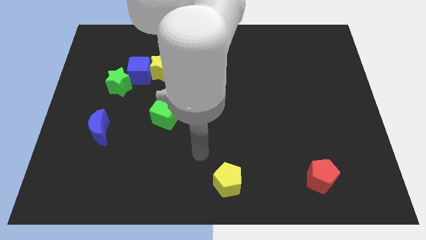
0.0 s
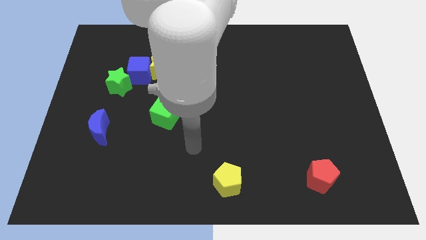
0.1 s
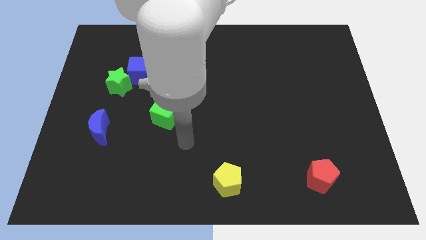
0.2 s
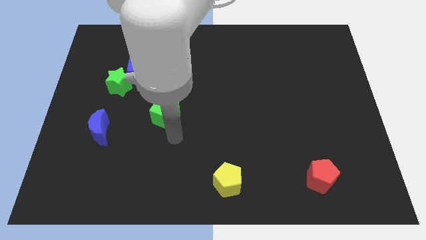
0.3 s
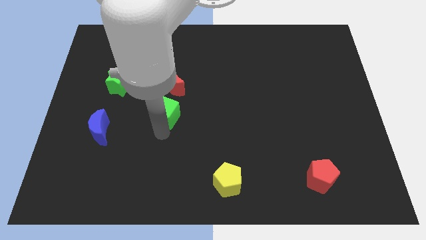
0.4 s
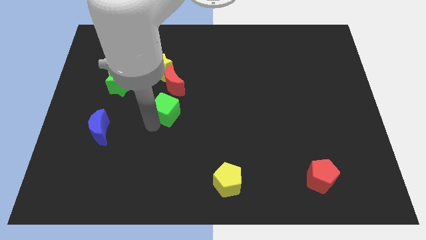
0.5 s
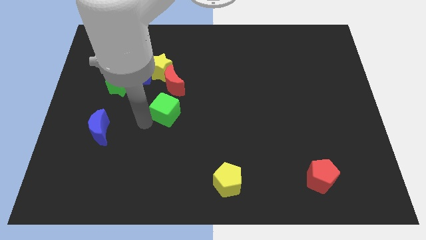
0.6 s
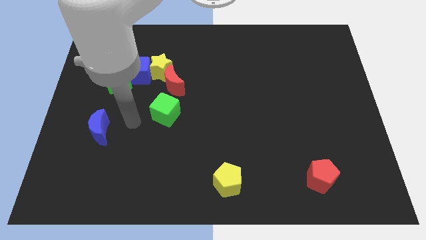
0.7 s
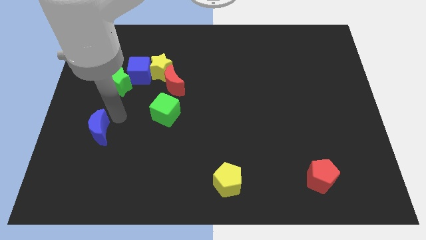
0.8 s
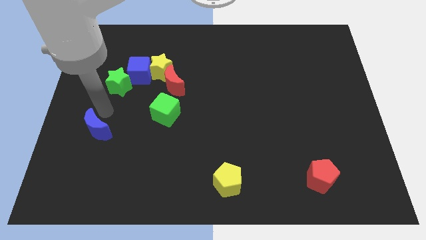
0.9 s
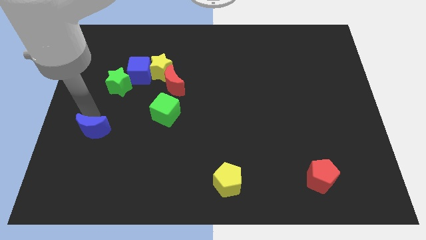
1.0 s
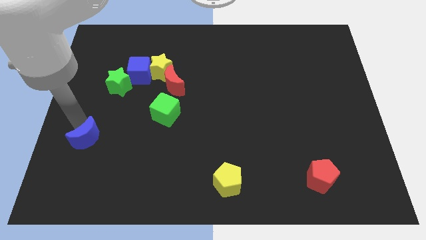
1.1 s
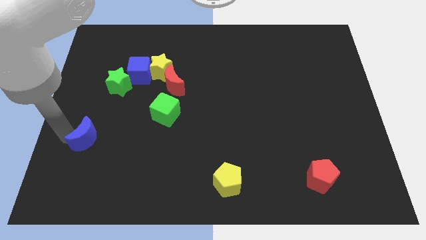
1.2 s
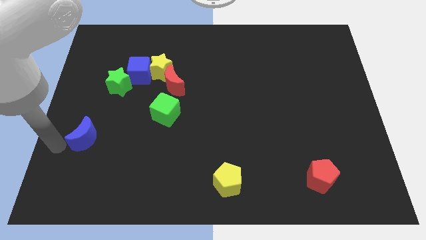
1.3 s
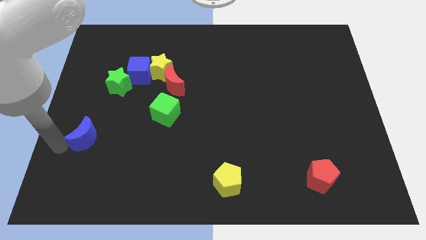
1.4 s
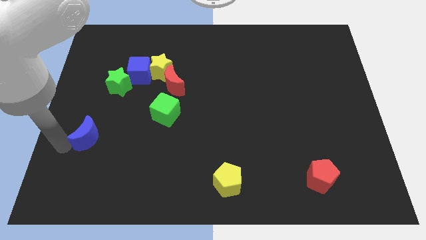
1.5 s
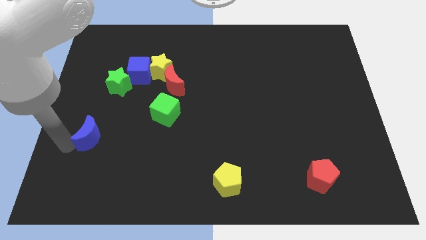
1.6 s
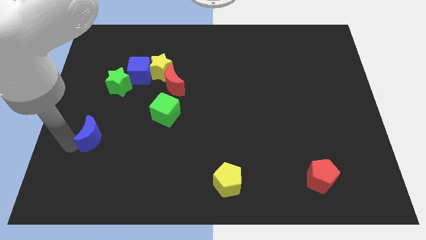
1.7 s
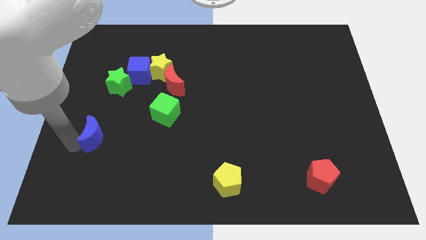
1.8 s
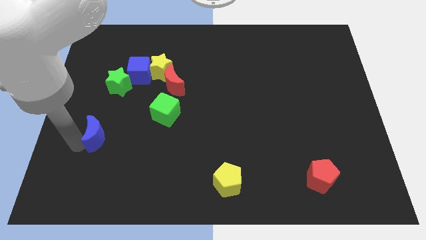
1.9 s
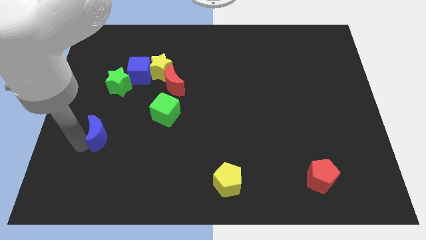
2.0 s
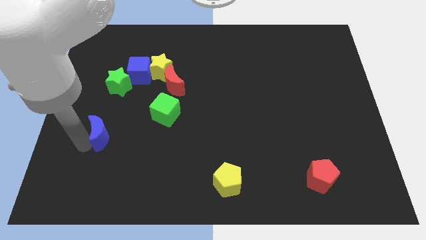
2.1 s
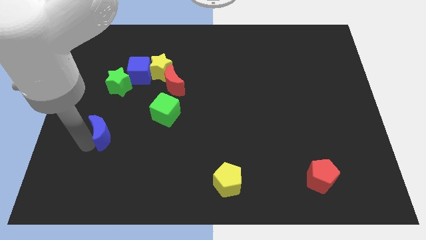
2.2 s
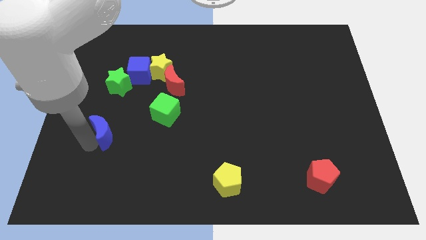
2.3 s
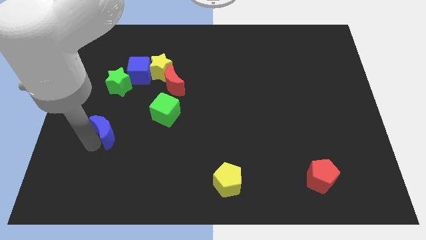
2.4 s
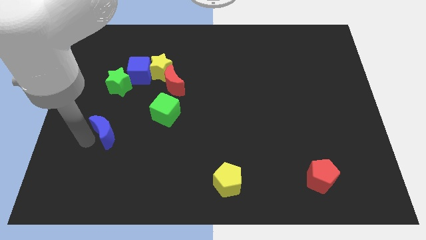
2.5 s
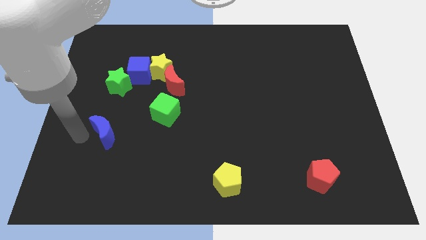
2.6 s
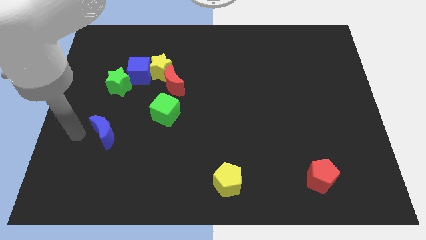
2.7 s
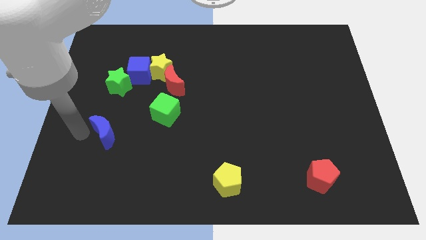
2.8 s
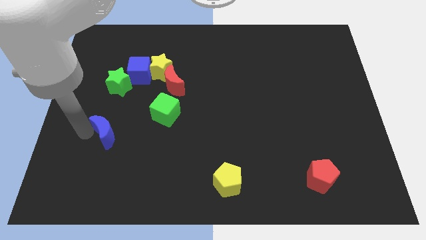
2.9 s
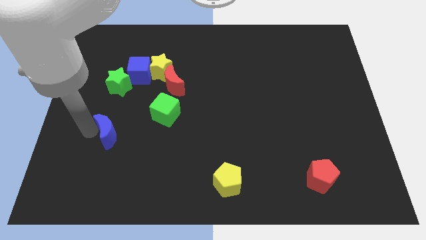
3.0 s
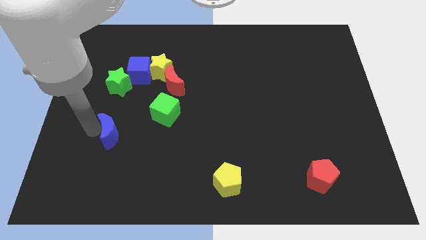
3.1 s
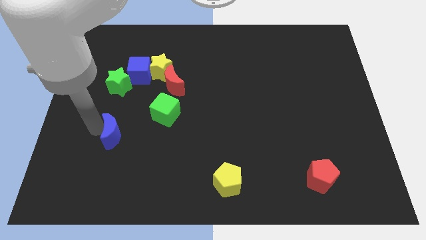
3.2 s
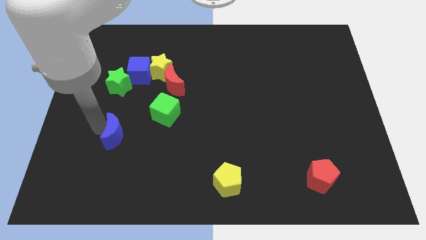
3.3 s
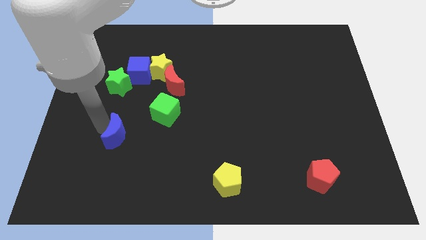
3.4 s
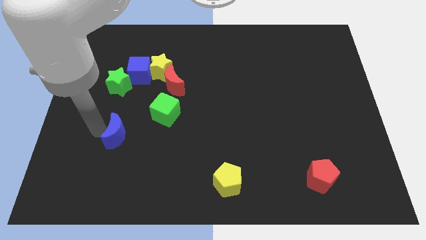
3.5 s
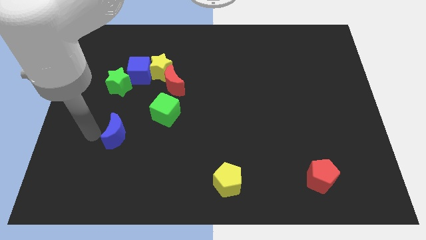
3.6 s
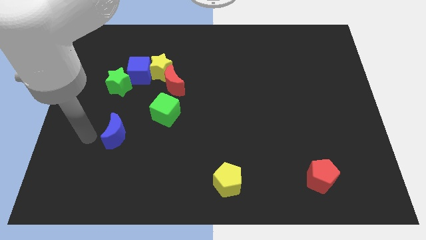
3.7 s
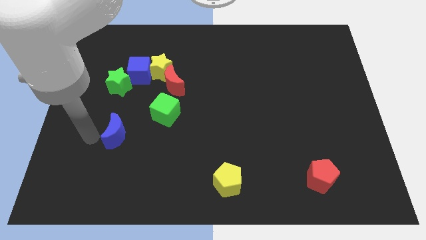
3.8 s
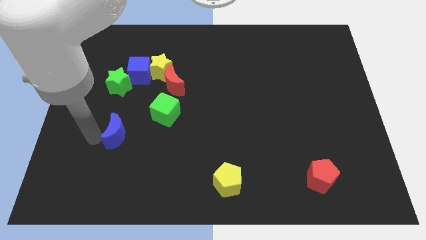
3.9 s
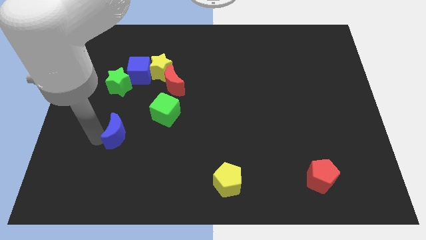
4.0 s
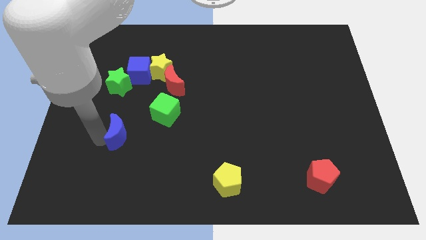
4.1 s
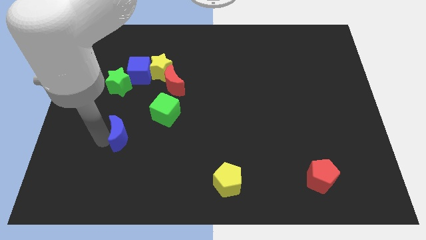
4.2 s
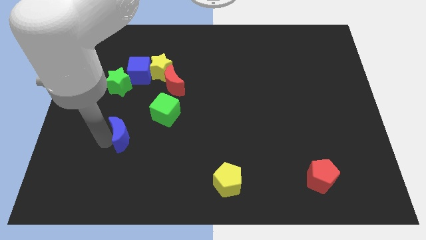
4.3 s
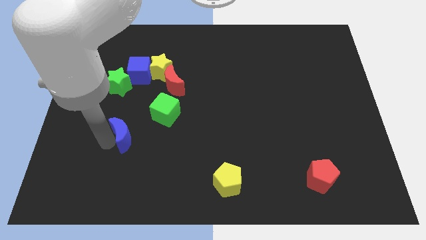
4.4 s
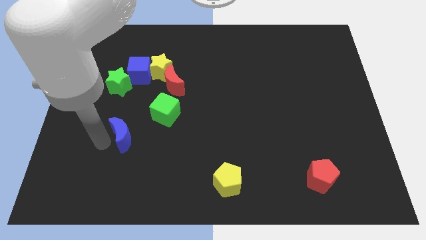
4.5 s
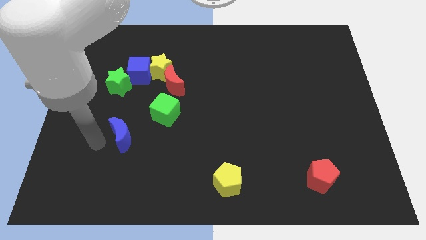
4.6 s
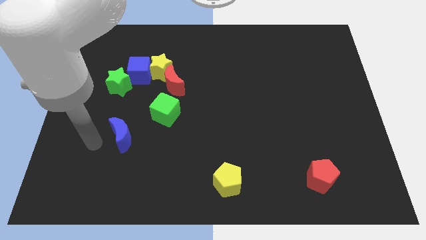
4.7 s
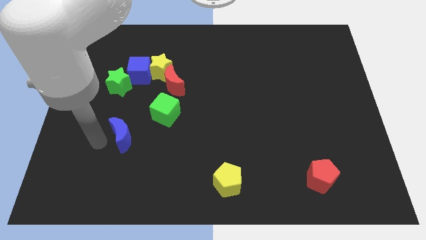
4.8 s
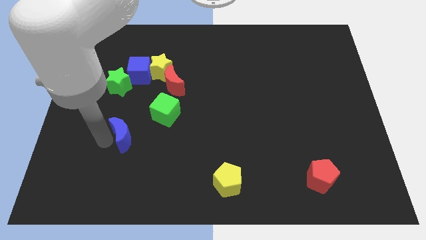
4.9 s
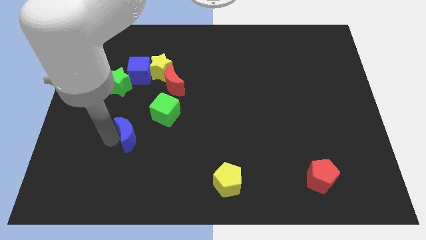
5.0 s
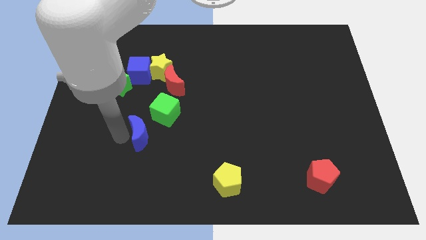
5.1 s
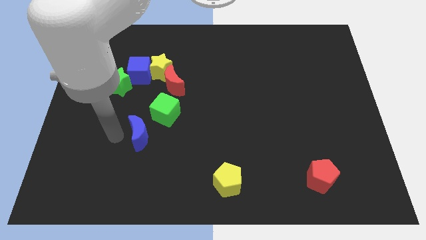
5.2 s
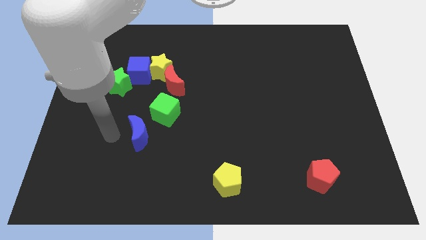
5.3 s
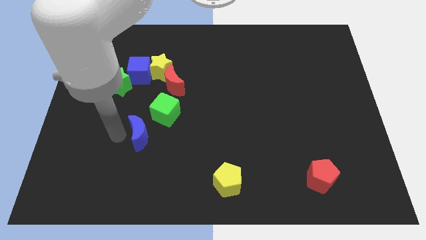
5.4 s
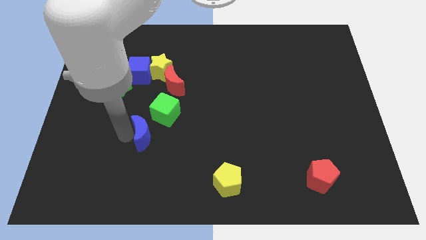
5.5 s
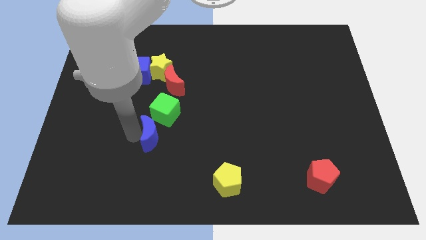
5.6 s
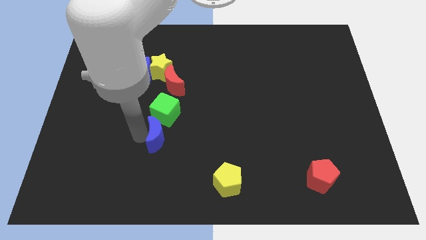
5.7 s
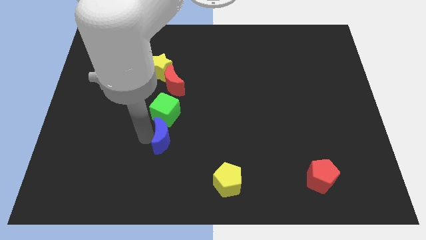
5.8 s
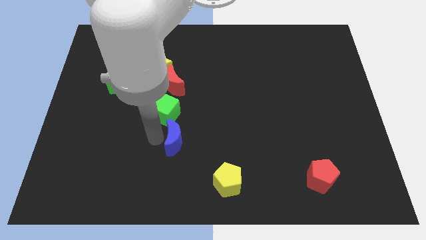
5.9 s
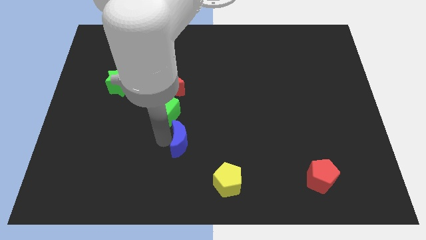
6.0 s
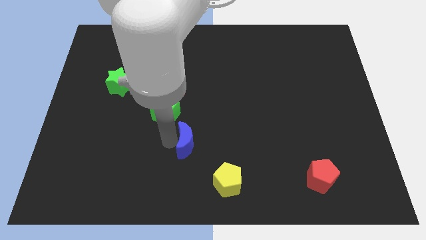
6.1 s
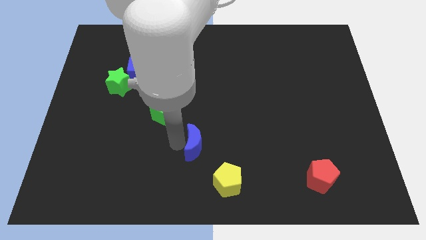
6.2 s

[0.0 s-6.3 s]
slide the blue moon right

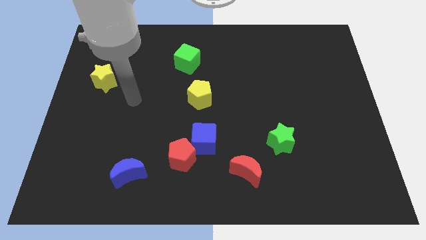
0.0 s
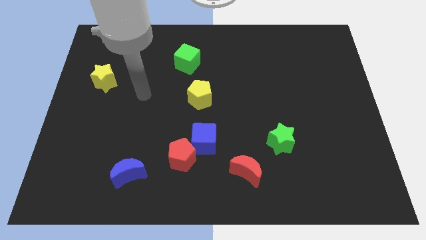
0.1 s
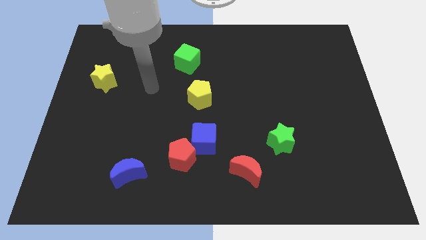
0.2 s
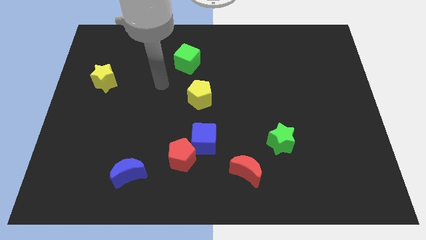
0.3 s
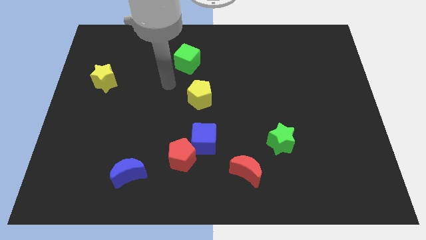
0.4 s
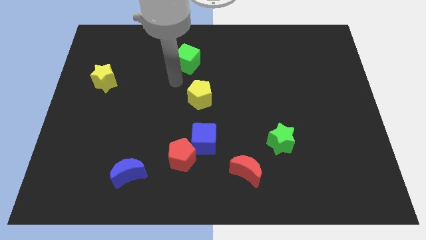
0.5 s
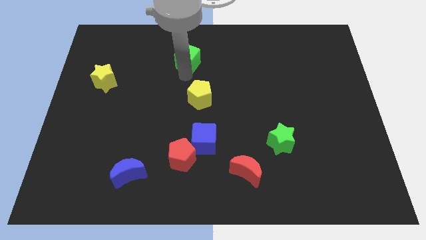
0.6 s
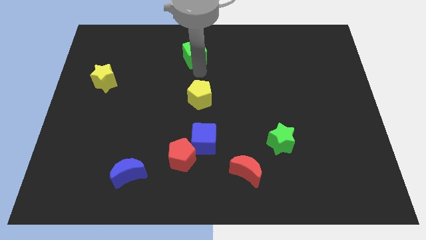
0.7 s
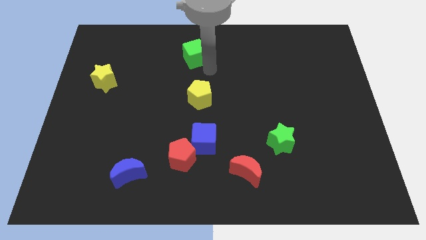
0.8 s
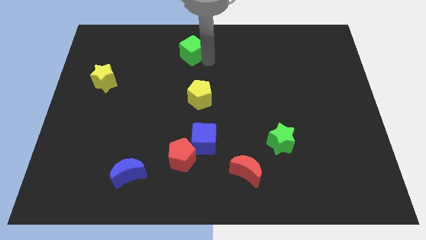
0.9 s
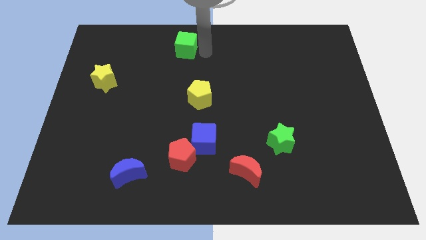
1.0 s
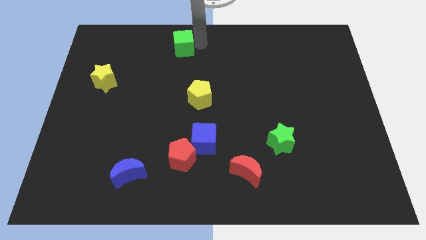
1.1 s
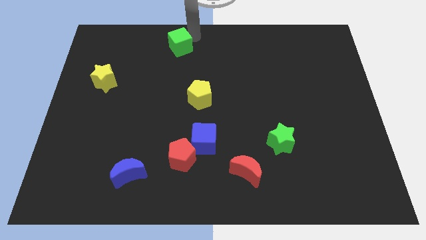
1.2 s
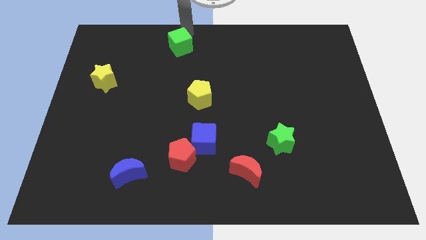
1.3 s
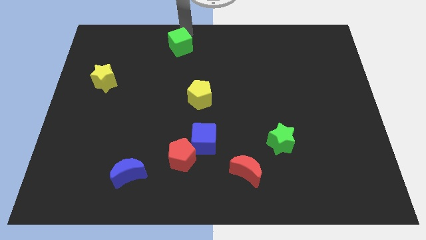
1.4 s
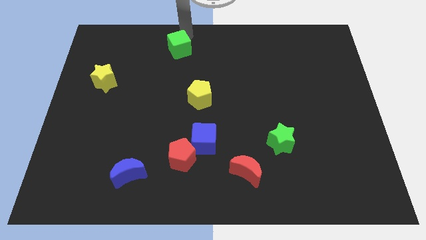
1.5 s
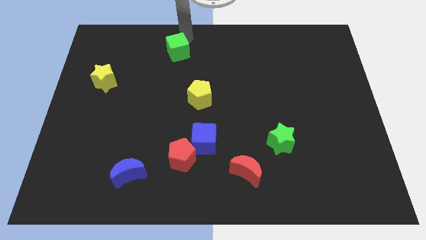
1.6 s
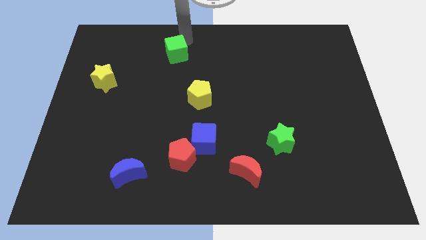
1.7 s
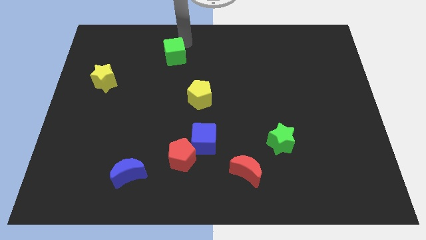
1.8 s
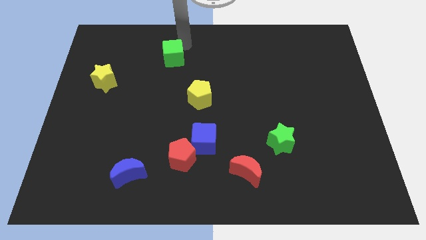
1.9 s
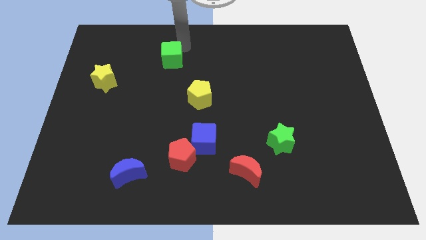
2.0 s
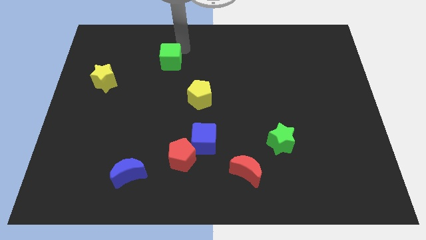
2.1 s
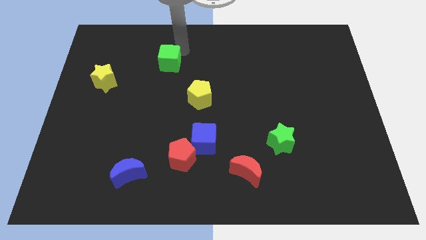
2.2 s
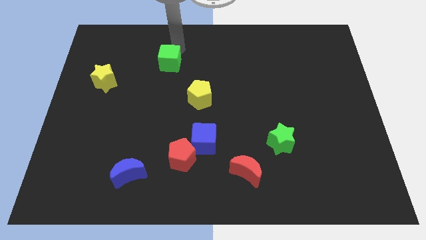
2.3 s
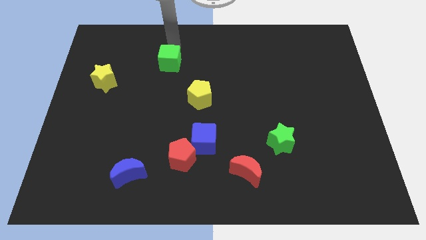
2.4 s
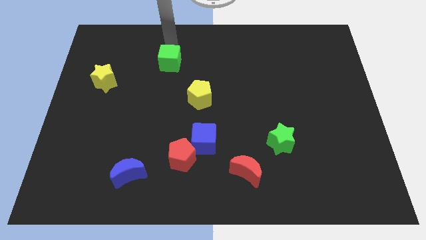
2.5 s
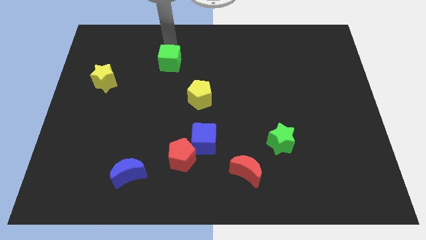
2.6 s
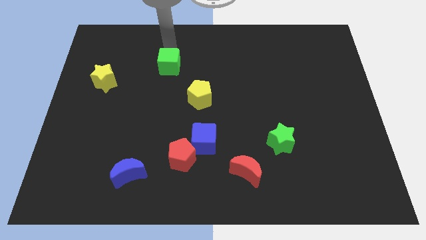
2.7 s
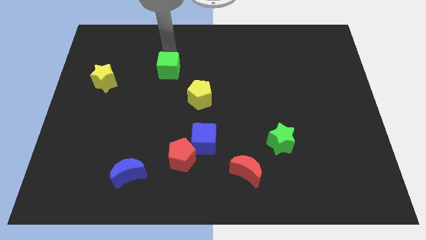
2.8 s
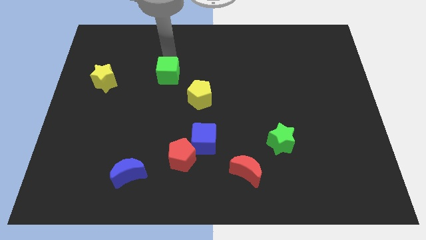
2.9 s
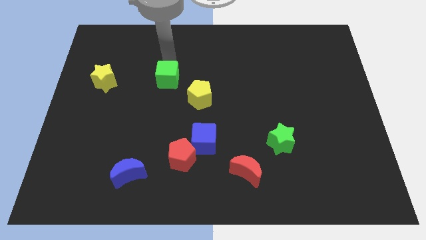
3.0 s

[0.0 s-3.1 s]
slightly move the green cube diagonally down and left
